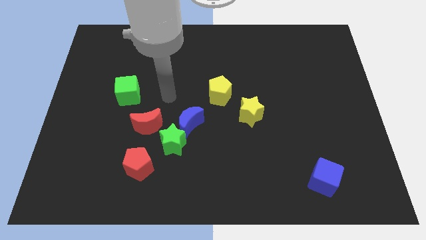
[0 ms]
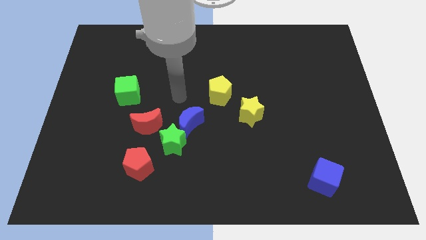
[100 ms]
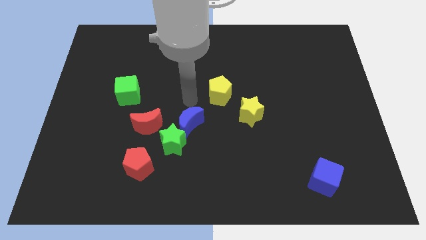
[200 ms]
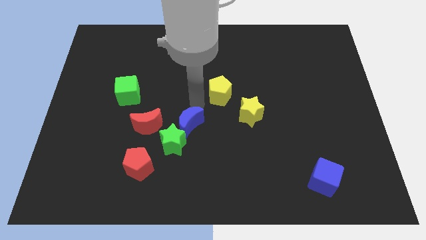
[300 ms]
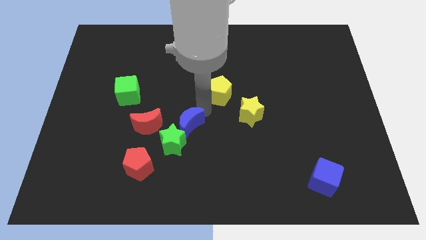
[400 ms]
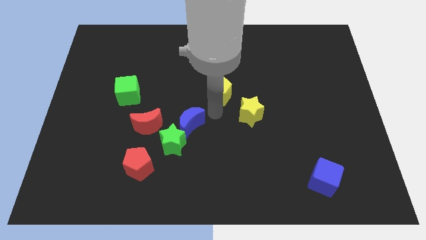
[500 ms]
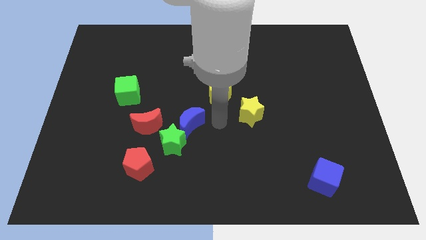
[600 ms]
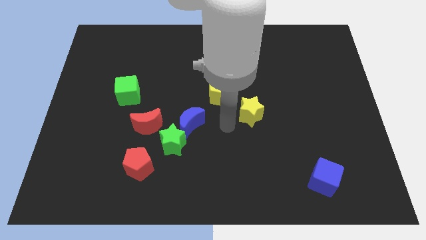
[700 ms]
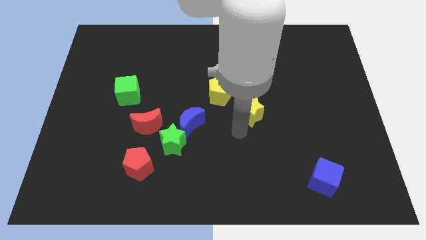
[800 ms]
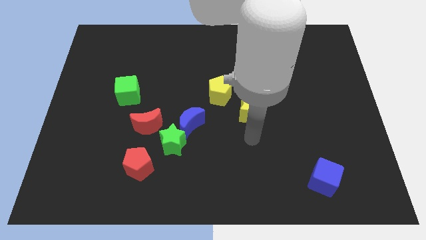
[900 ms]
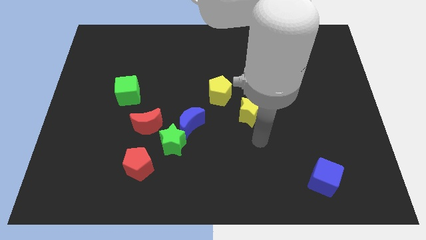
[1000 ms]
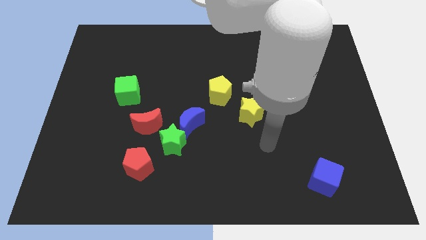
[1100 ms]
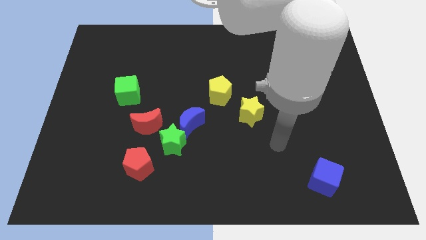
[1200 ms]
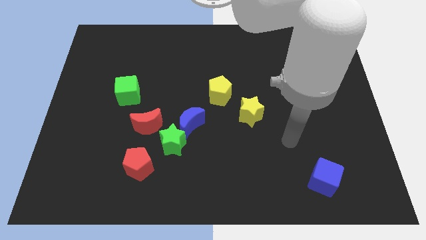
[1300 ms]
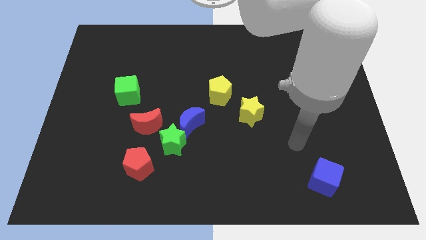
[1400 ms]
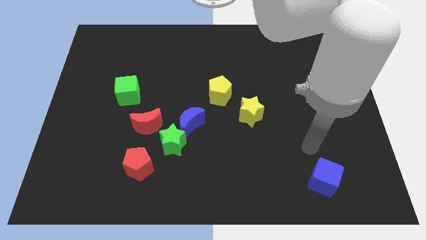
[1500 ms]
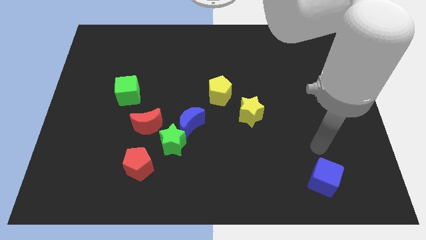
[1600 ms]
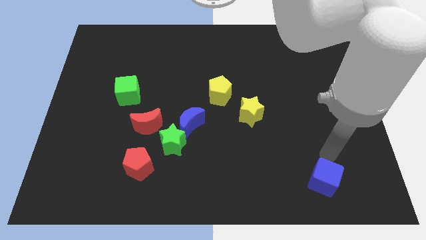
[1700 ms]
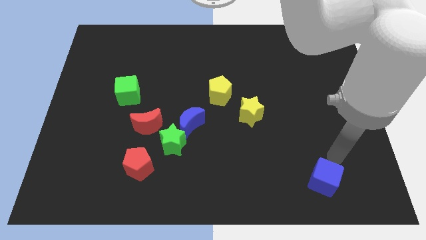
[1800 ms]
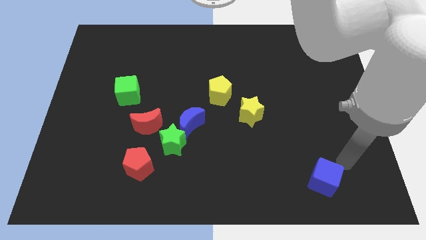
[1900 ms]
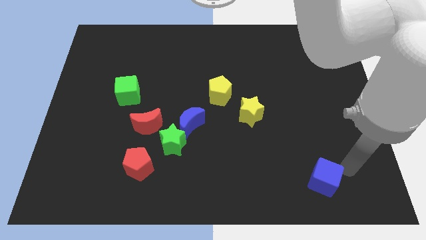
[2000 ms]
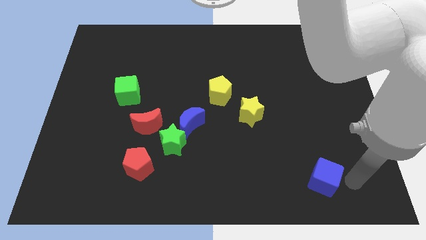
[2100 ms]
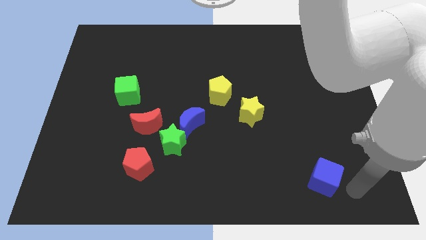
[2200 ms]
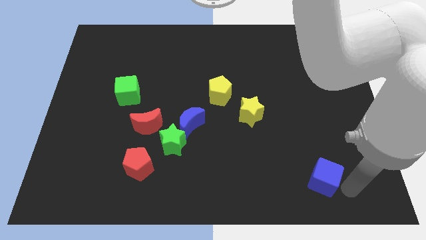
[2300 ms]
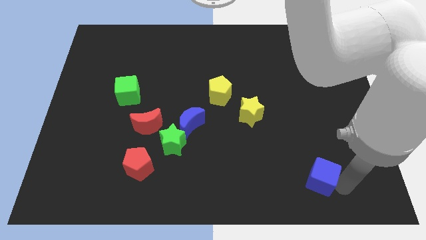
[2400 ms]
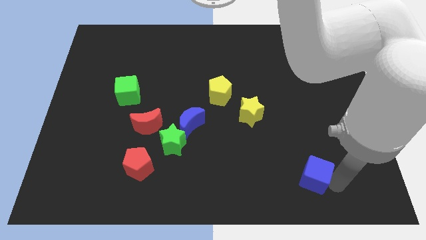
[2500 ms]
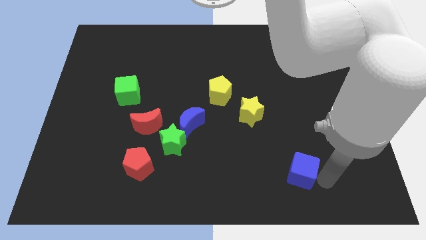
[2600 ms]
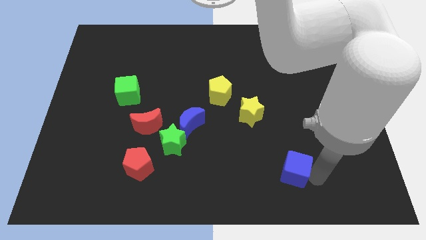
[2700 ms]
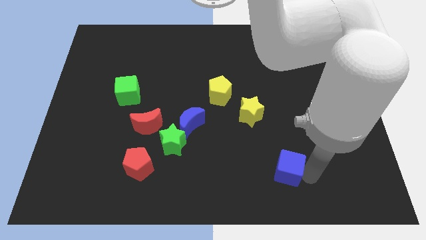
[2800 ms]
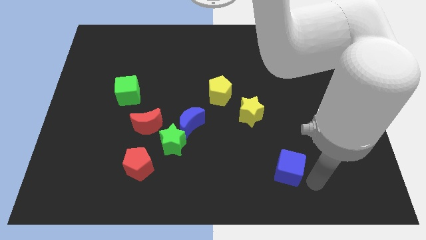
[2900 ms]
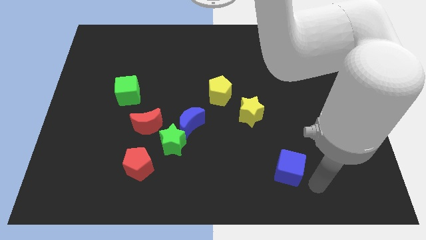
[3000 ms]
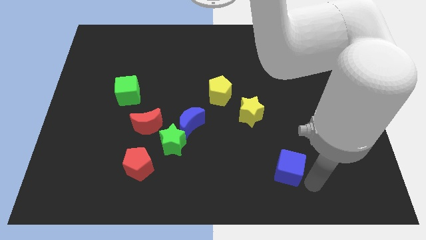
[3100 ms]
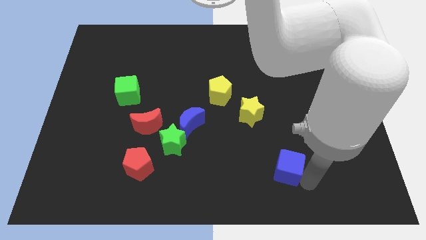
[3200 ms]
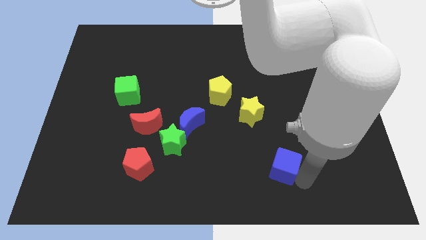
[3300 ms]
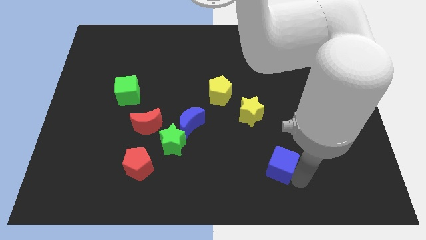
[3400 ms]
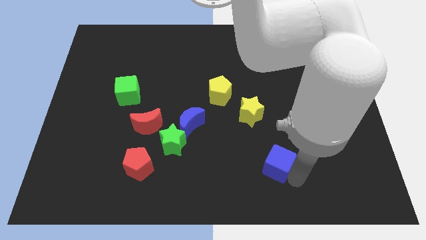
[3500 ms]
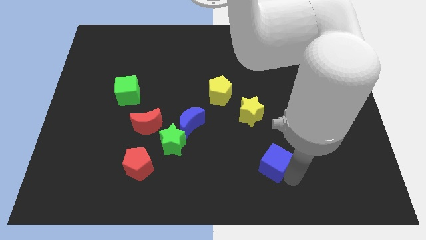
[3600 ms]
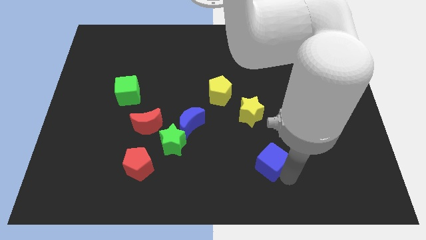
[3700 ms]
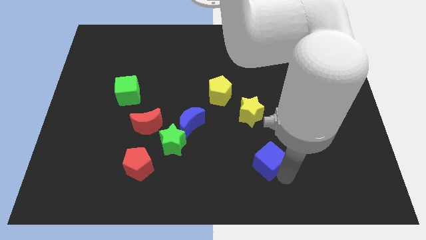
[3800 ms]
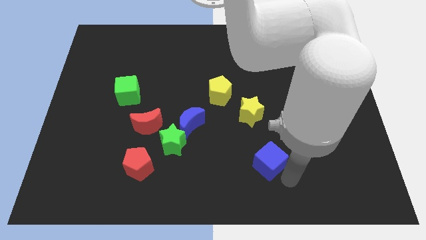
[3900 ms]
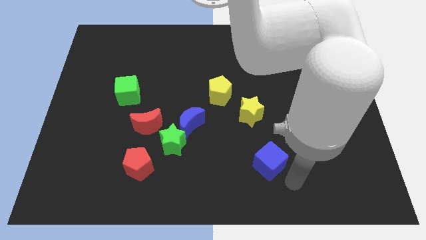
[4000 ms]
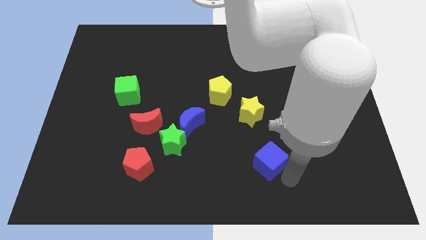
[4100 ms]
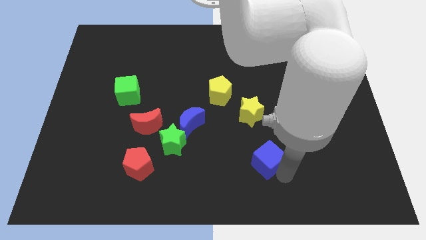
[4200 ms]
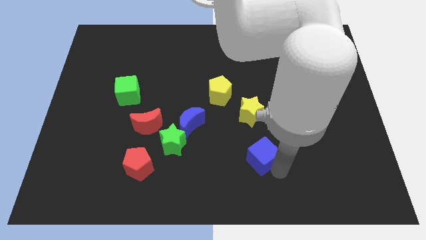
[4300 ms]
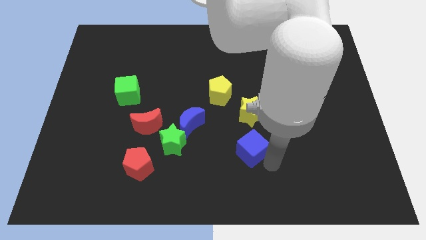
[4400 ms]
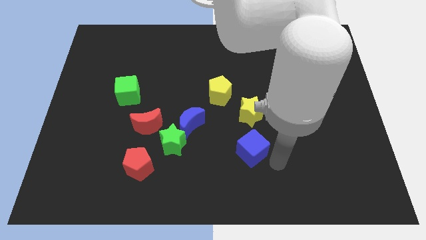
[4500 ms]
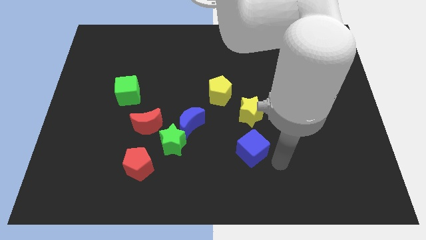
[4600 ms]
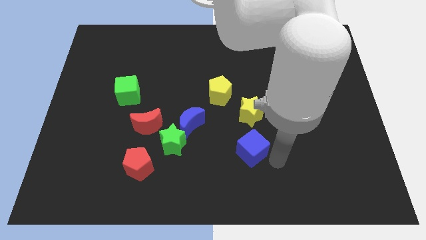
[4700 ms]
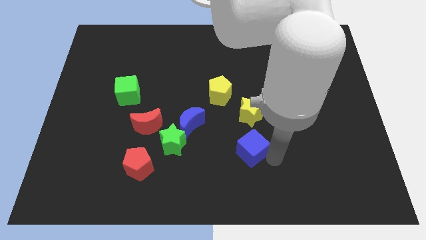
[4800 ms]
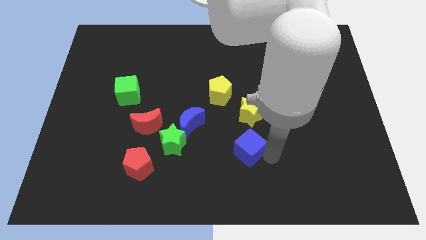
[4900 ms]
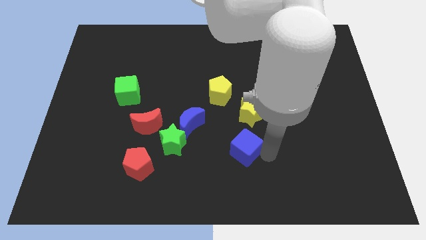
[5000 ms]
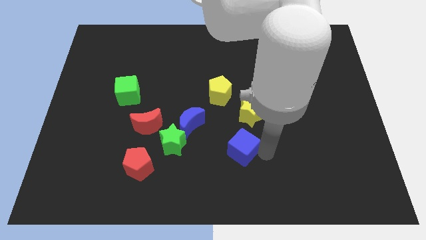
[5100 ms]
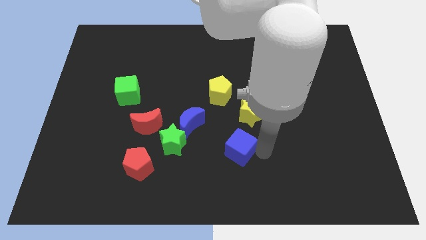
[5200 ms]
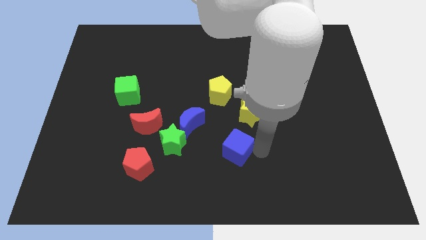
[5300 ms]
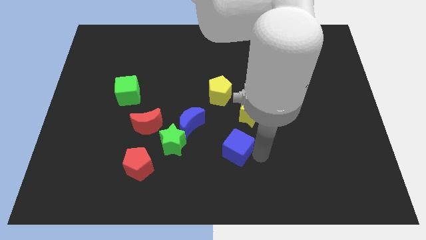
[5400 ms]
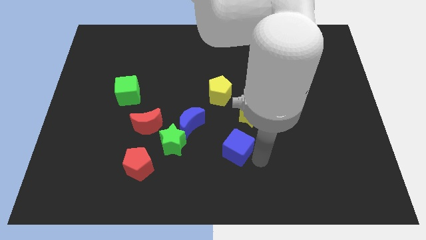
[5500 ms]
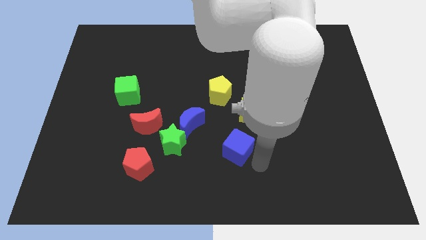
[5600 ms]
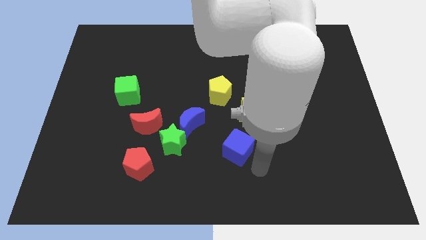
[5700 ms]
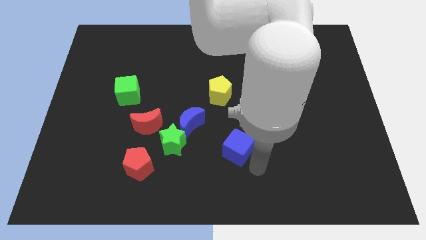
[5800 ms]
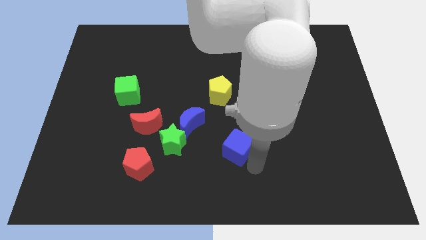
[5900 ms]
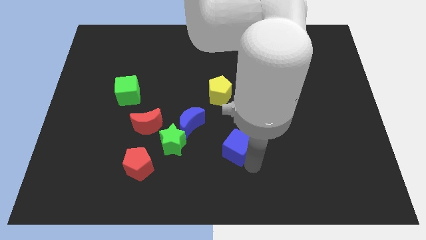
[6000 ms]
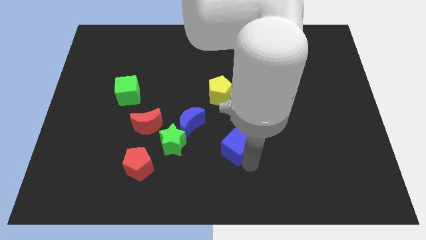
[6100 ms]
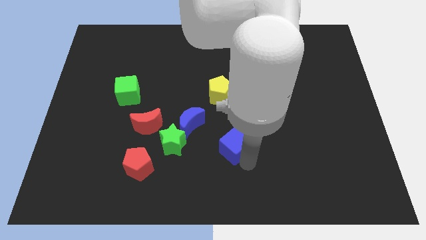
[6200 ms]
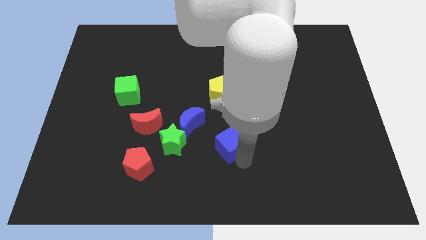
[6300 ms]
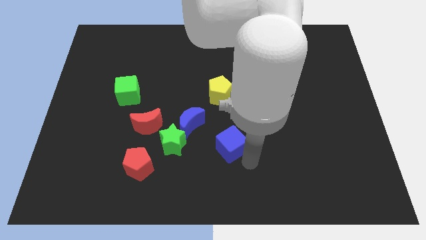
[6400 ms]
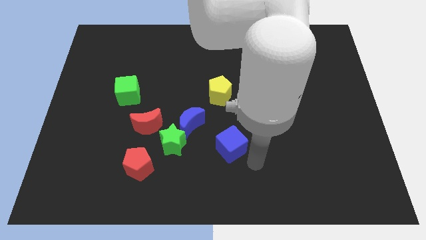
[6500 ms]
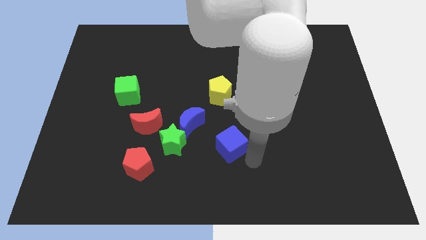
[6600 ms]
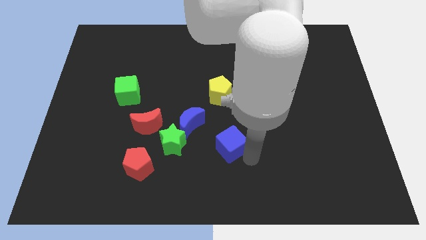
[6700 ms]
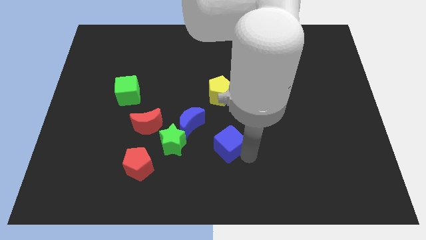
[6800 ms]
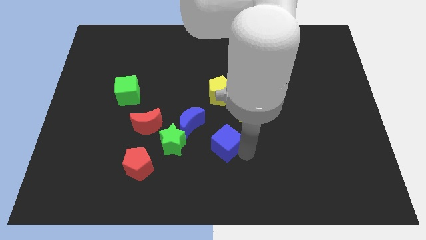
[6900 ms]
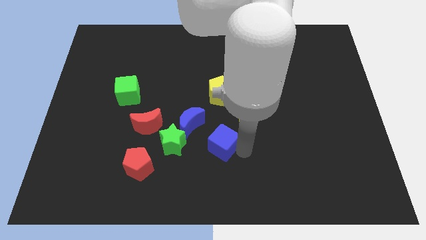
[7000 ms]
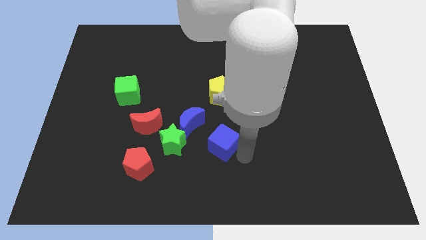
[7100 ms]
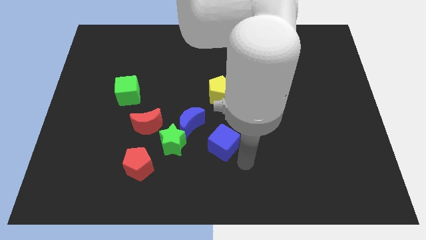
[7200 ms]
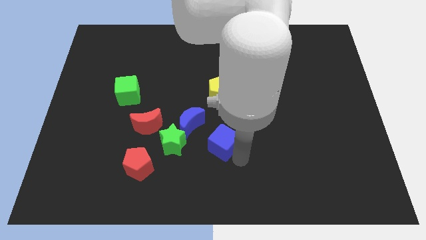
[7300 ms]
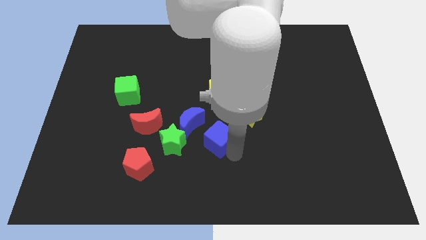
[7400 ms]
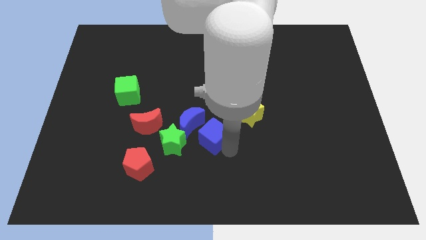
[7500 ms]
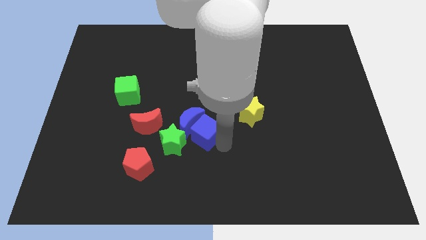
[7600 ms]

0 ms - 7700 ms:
push the blue cube close to the blue moon

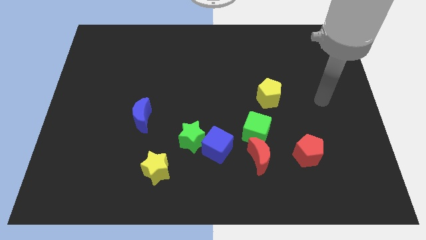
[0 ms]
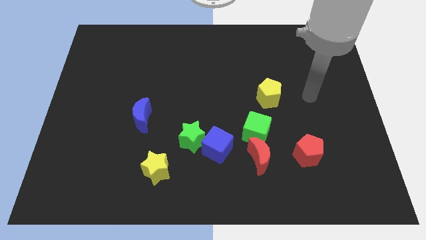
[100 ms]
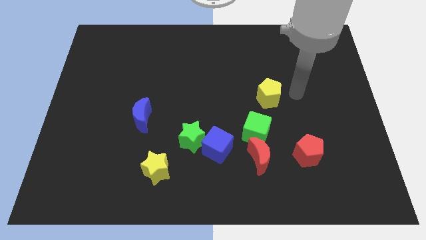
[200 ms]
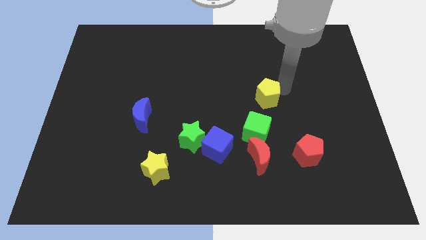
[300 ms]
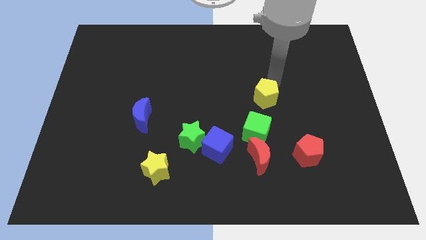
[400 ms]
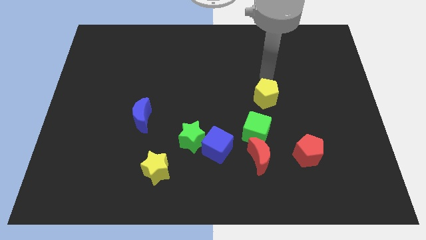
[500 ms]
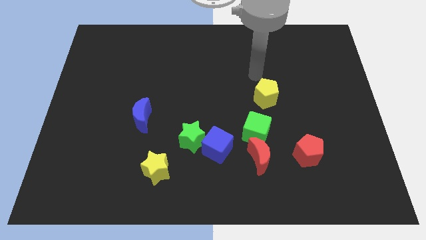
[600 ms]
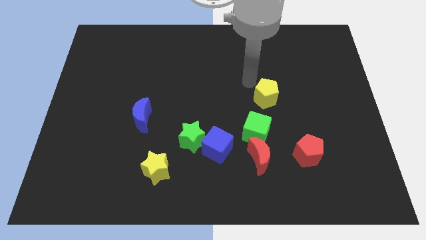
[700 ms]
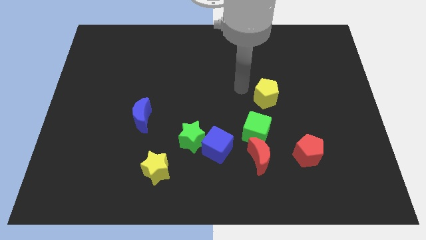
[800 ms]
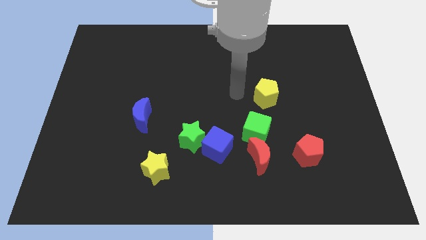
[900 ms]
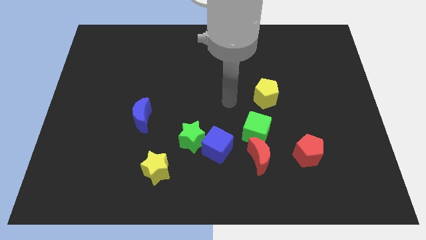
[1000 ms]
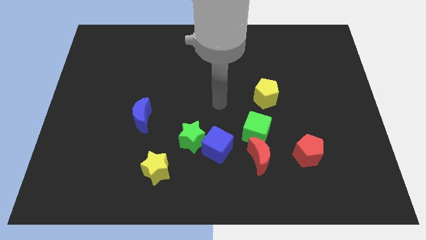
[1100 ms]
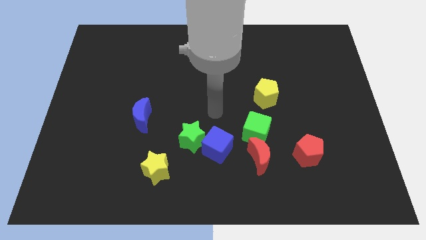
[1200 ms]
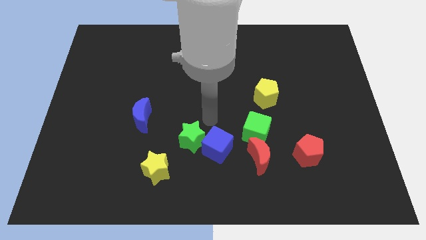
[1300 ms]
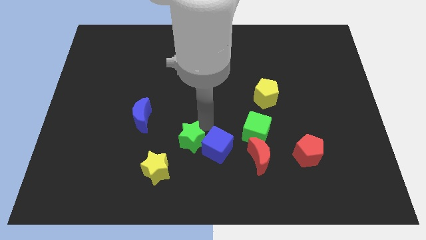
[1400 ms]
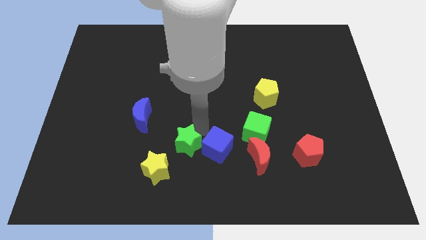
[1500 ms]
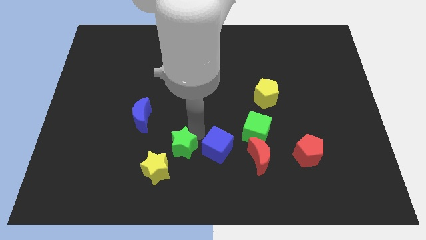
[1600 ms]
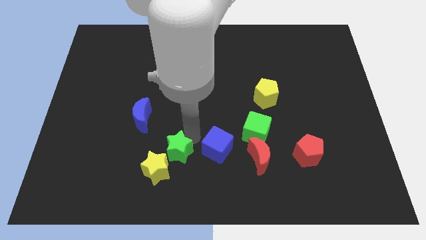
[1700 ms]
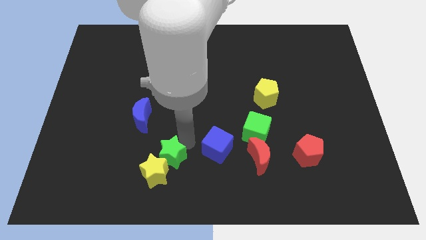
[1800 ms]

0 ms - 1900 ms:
push the green star towards the yellow star
